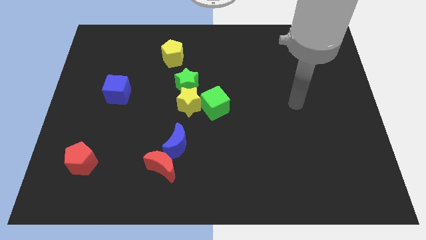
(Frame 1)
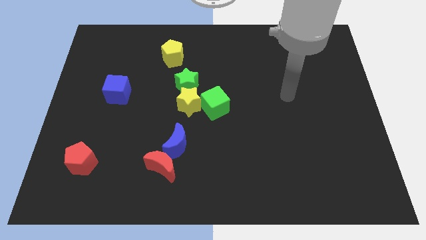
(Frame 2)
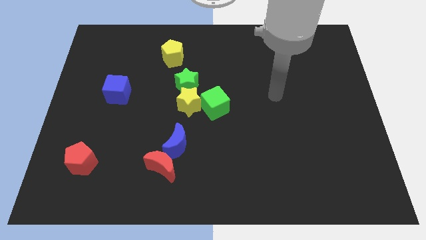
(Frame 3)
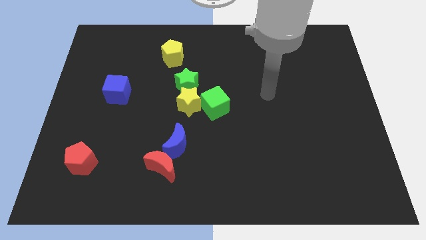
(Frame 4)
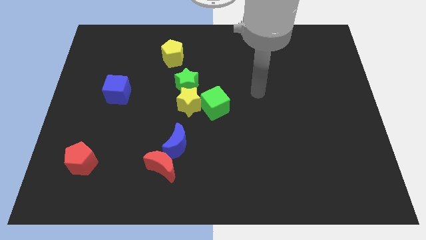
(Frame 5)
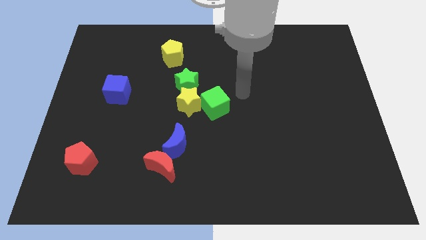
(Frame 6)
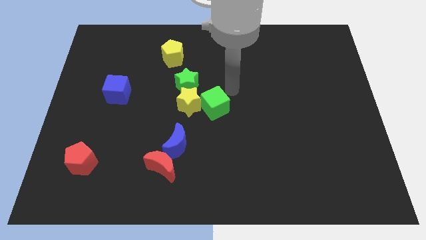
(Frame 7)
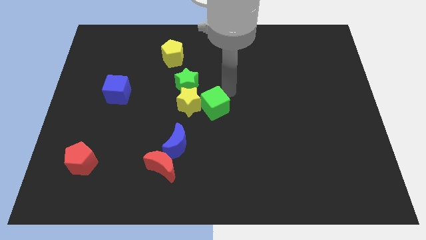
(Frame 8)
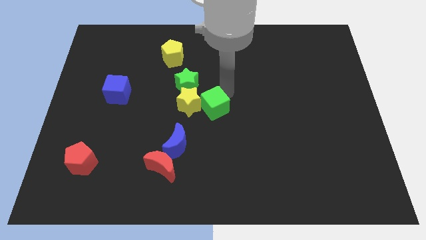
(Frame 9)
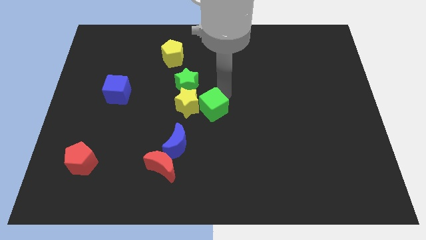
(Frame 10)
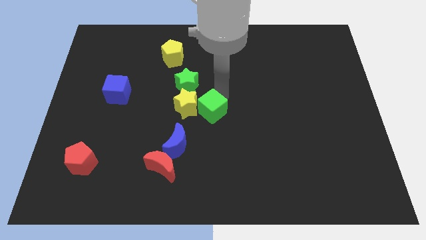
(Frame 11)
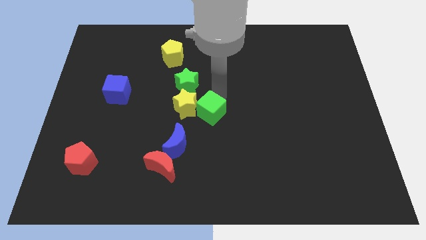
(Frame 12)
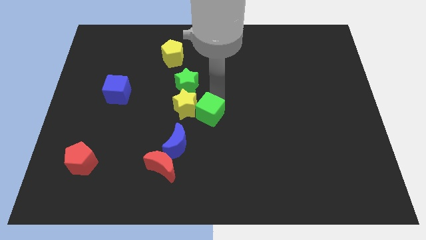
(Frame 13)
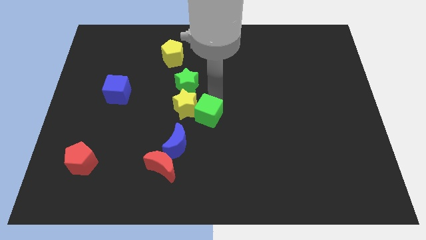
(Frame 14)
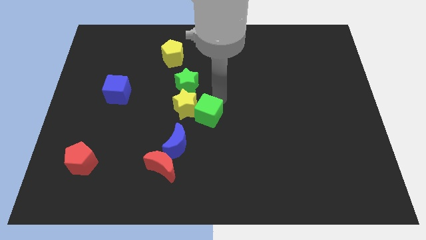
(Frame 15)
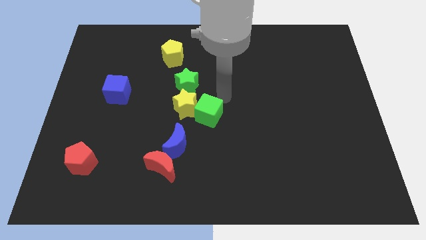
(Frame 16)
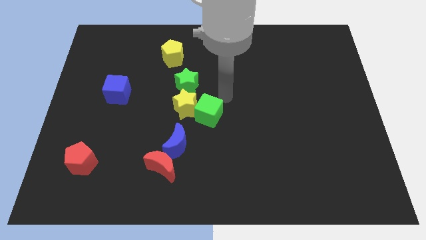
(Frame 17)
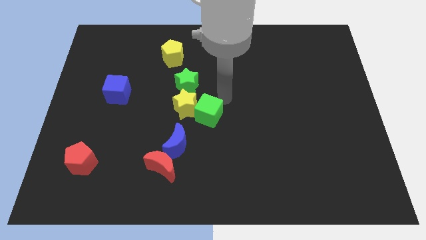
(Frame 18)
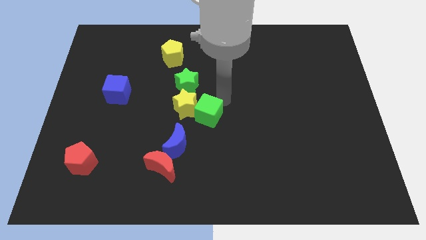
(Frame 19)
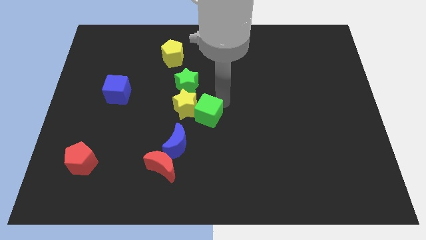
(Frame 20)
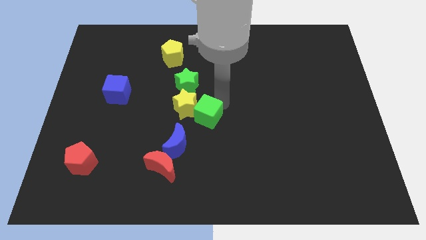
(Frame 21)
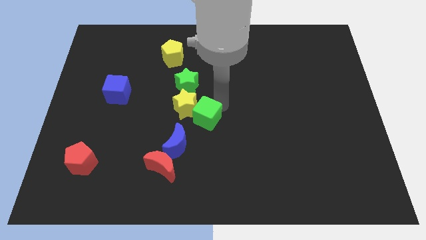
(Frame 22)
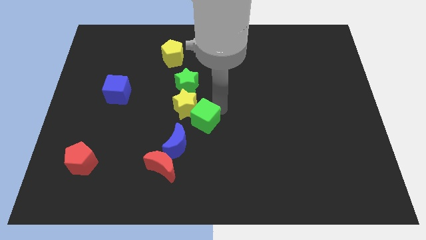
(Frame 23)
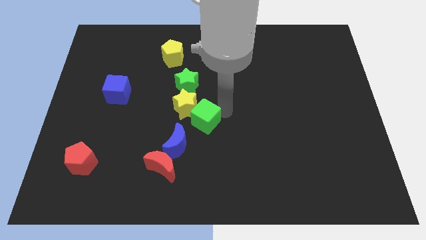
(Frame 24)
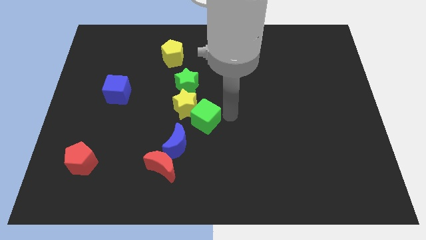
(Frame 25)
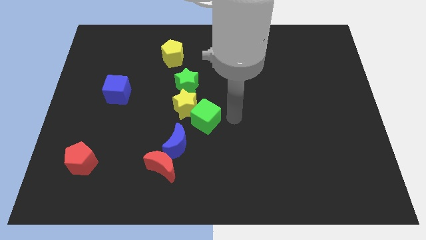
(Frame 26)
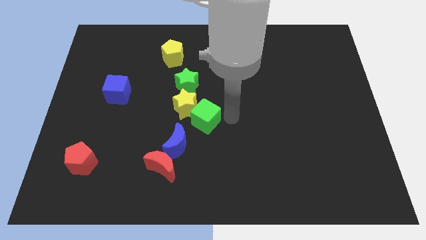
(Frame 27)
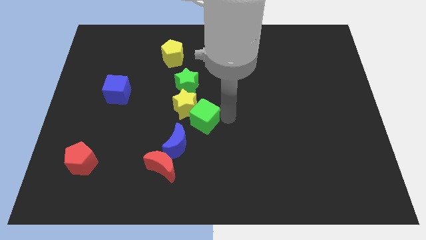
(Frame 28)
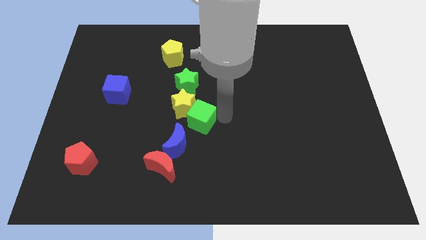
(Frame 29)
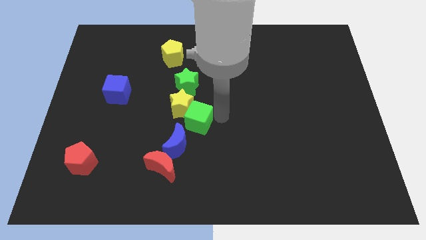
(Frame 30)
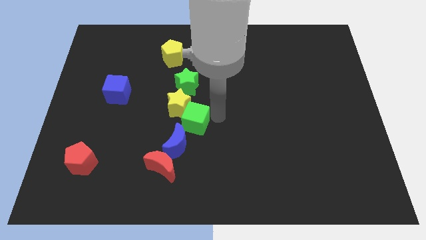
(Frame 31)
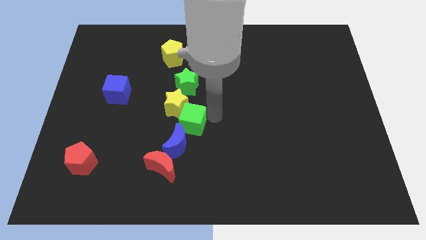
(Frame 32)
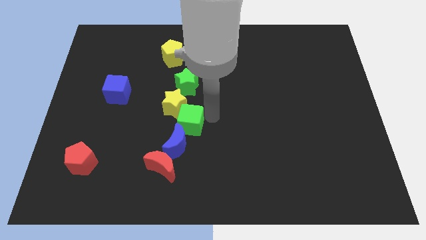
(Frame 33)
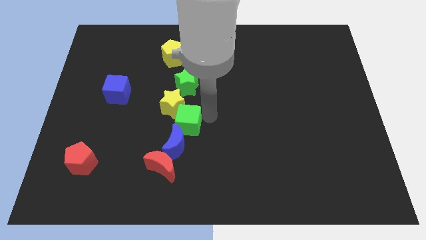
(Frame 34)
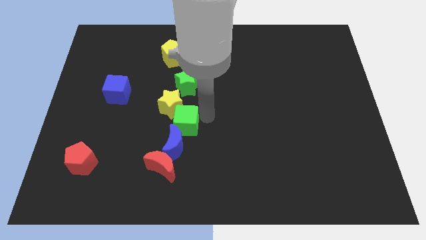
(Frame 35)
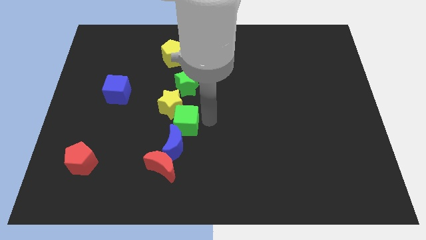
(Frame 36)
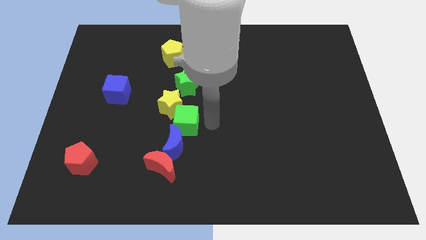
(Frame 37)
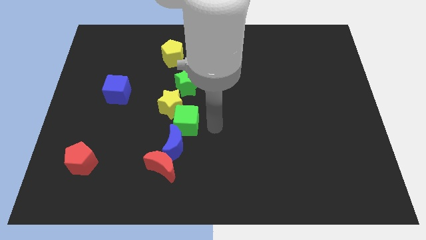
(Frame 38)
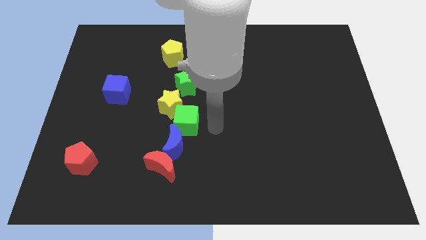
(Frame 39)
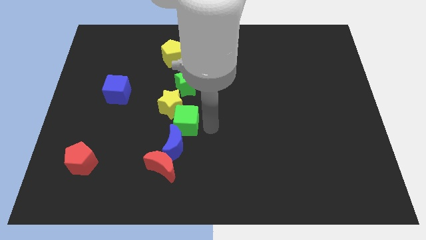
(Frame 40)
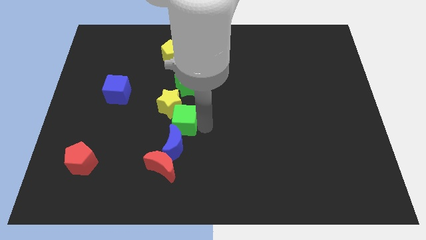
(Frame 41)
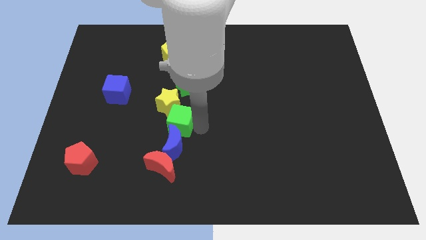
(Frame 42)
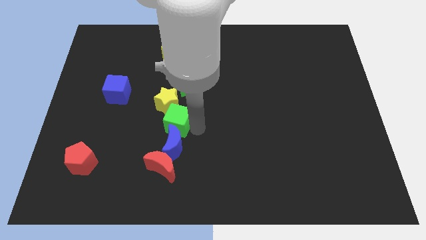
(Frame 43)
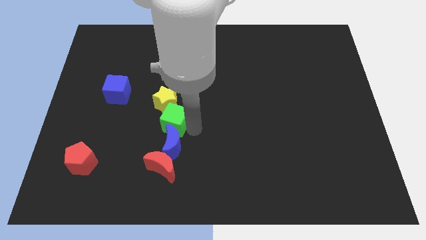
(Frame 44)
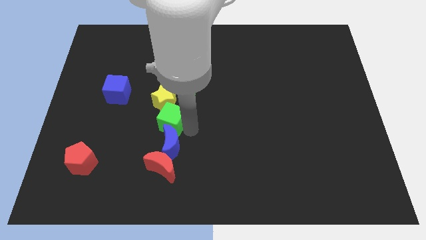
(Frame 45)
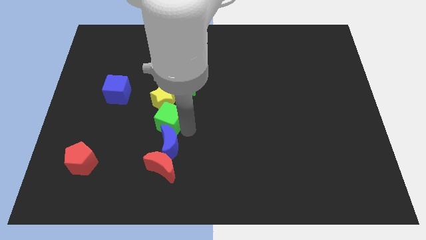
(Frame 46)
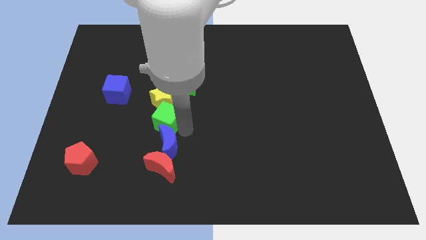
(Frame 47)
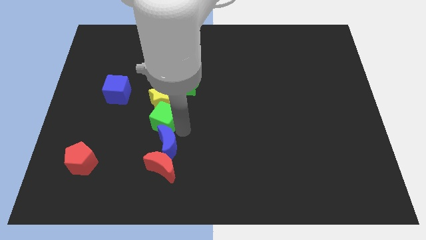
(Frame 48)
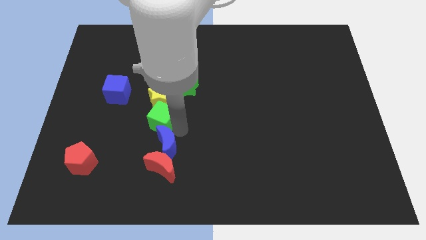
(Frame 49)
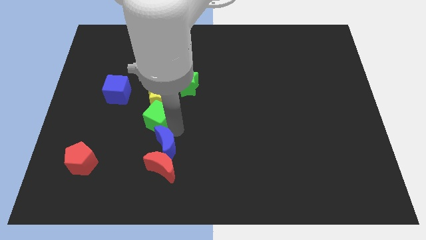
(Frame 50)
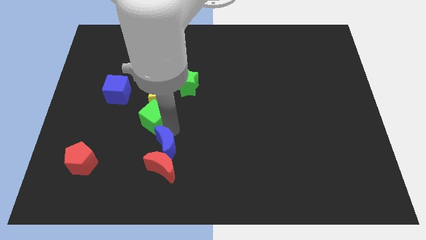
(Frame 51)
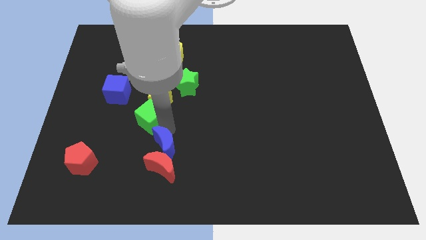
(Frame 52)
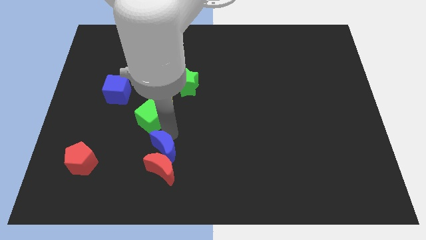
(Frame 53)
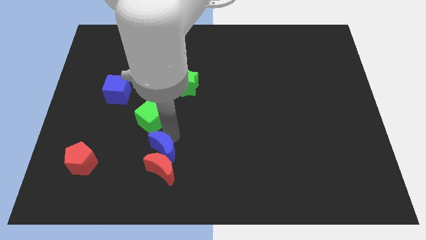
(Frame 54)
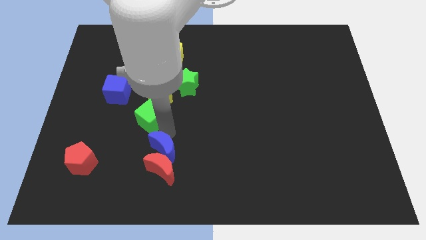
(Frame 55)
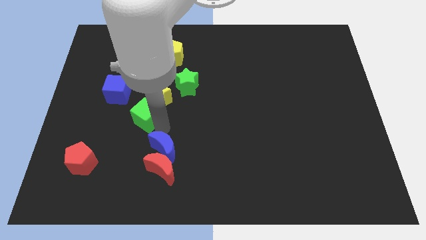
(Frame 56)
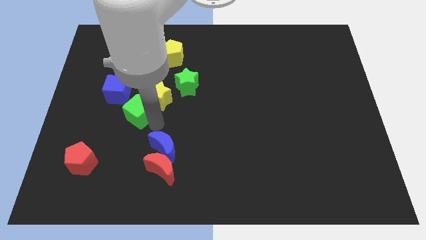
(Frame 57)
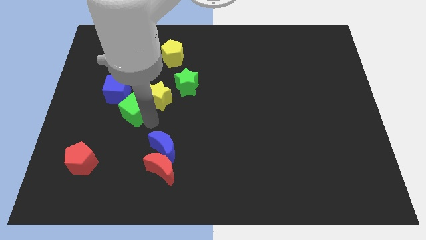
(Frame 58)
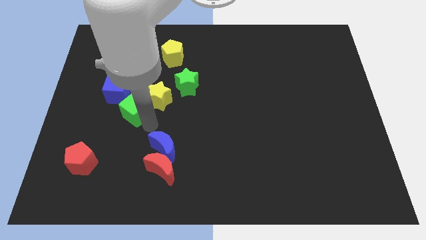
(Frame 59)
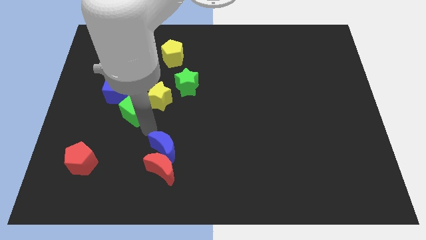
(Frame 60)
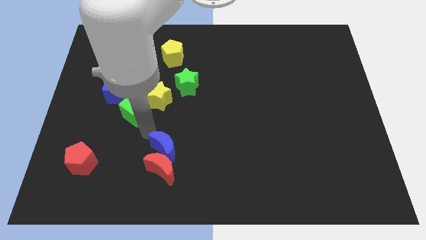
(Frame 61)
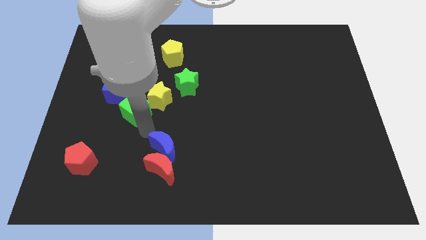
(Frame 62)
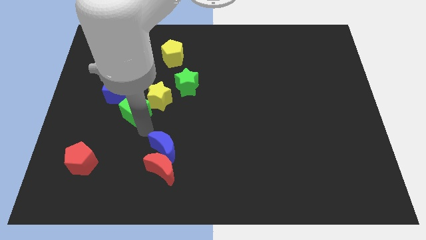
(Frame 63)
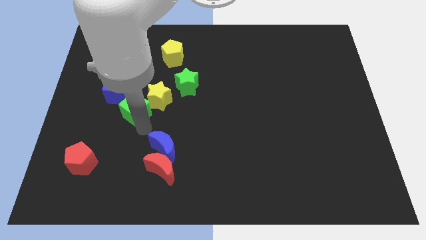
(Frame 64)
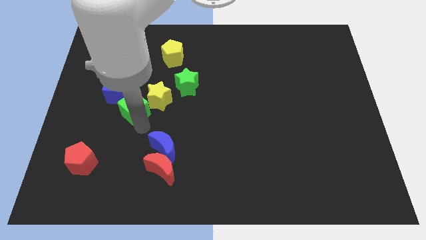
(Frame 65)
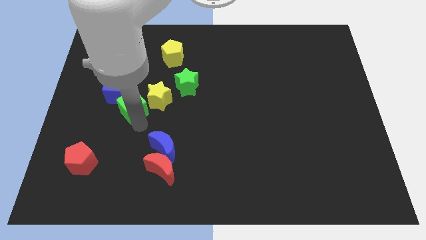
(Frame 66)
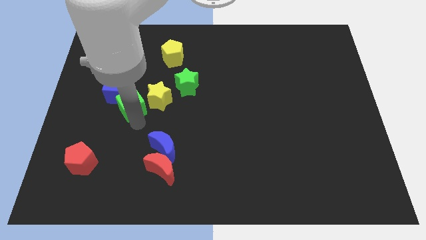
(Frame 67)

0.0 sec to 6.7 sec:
move the green cube to the blue cube
